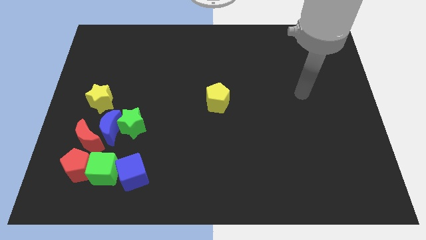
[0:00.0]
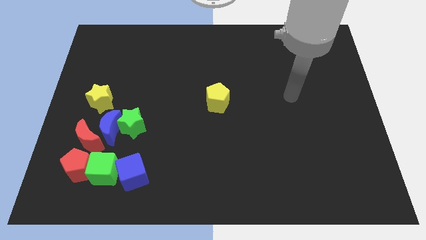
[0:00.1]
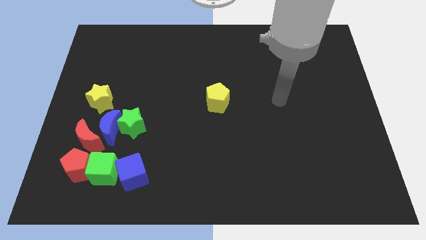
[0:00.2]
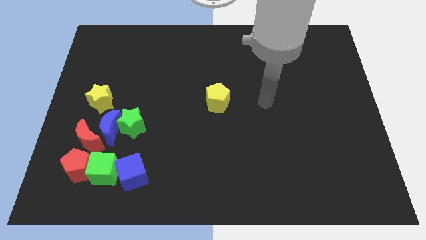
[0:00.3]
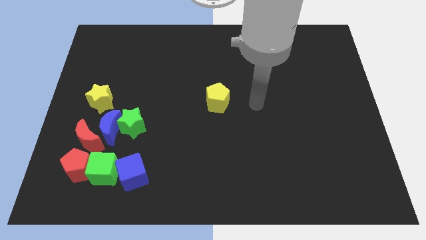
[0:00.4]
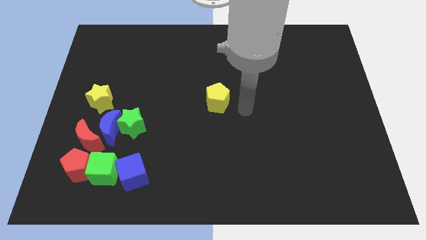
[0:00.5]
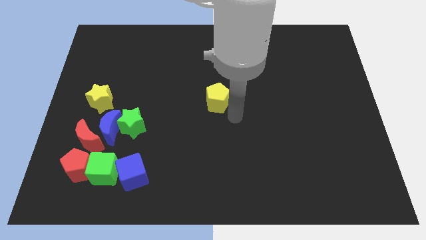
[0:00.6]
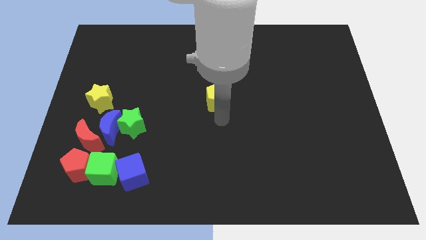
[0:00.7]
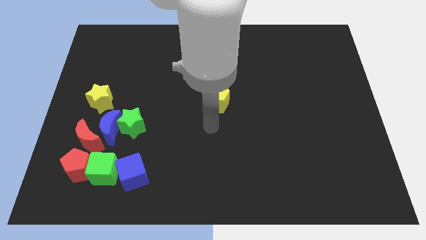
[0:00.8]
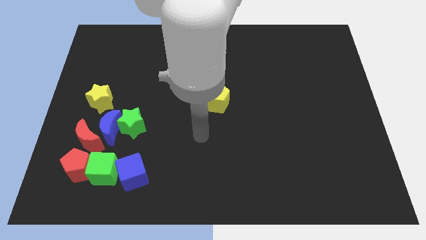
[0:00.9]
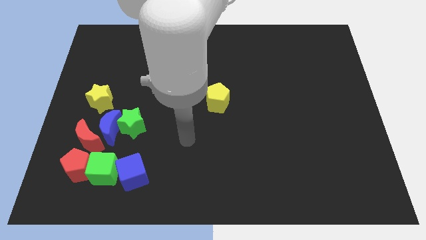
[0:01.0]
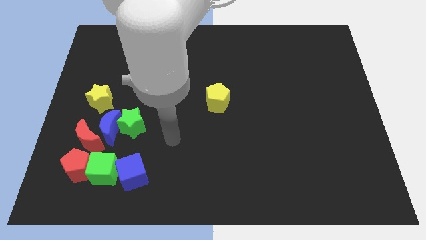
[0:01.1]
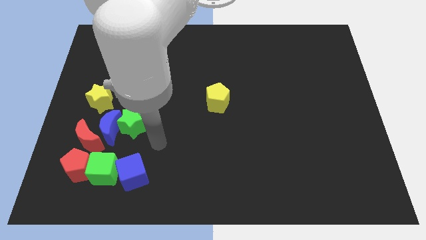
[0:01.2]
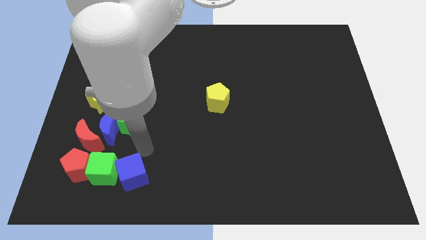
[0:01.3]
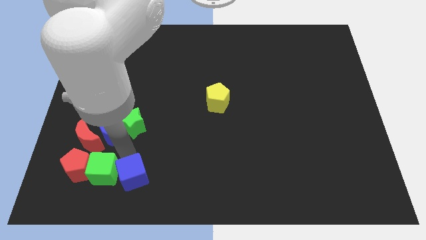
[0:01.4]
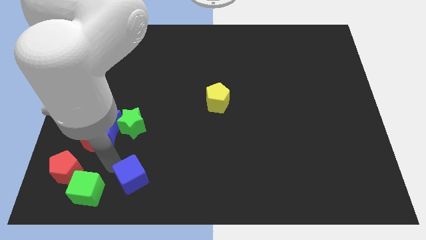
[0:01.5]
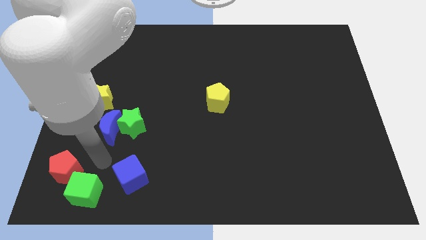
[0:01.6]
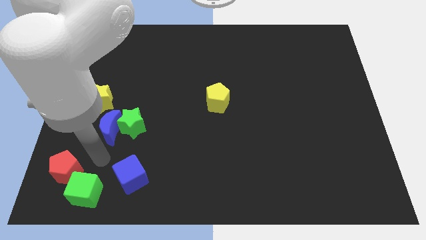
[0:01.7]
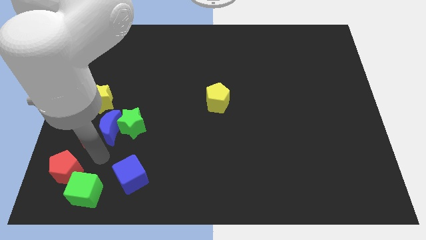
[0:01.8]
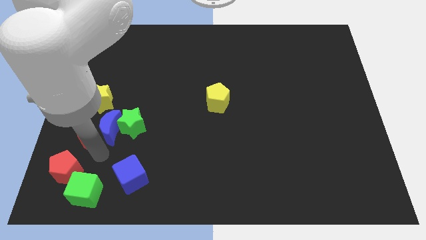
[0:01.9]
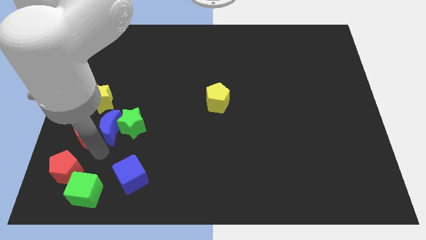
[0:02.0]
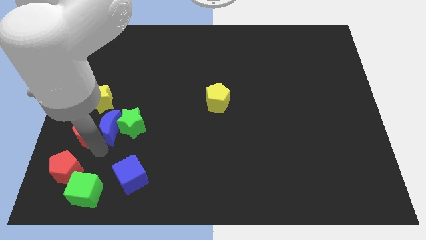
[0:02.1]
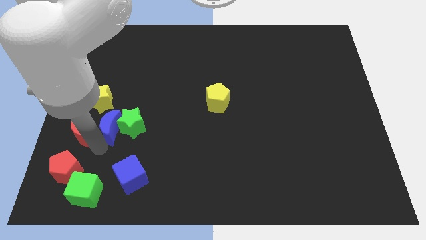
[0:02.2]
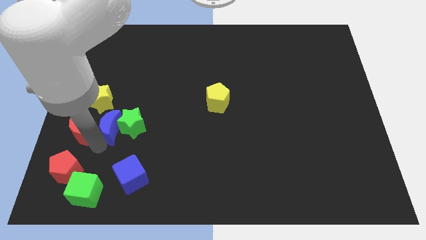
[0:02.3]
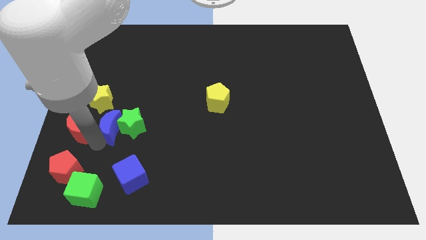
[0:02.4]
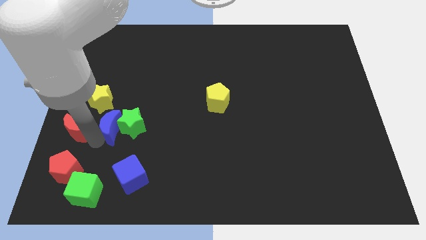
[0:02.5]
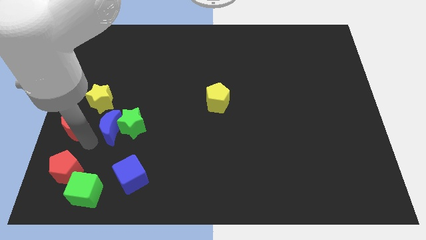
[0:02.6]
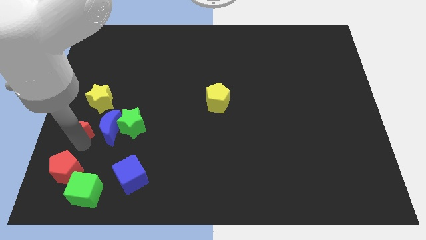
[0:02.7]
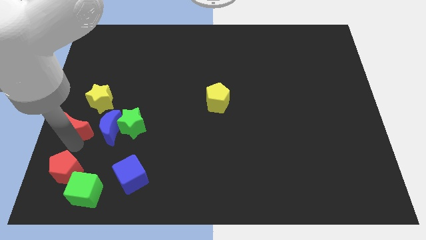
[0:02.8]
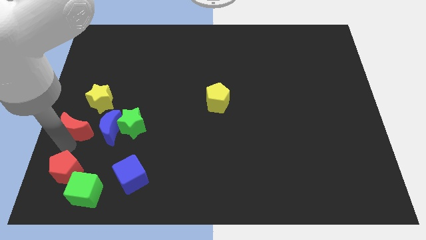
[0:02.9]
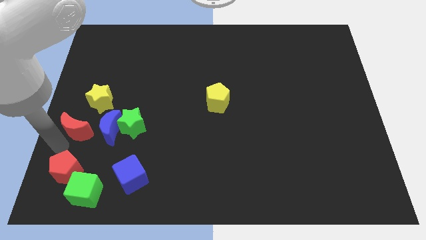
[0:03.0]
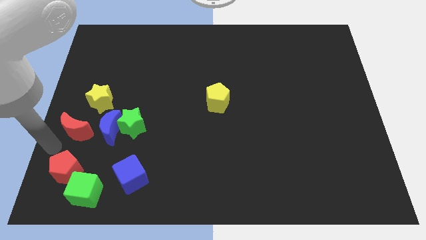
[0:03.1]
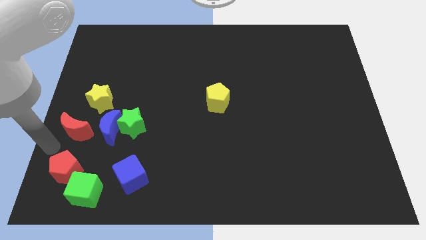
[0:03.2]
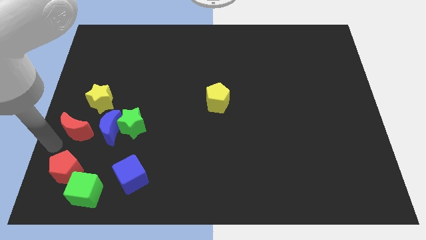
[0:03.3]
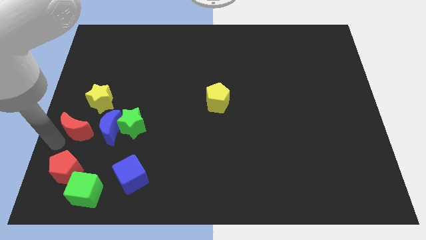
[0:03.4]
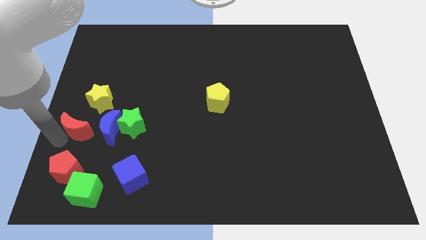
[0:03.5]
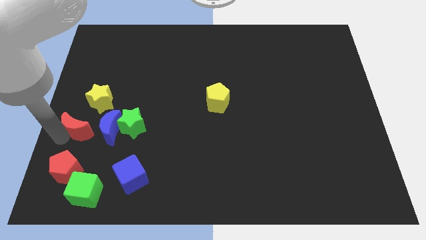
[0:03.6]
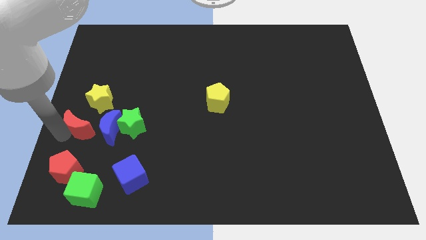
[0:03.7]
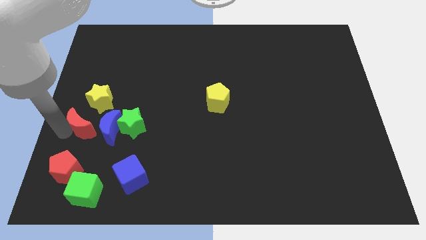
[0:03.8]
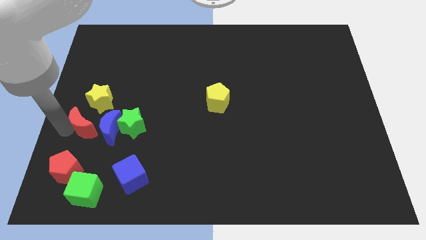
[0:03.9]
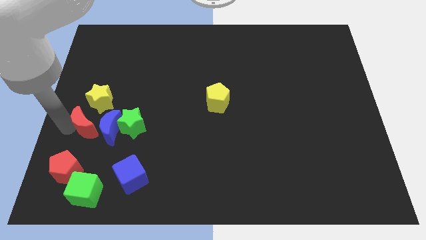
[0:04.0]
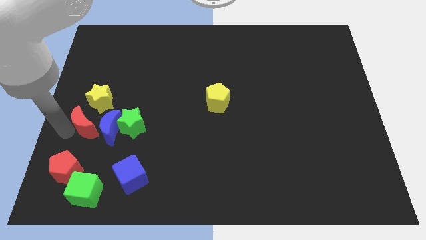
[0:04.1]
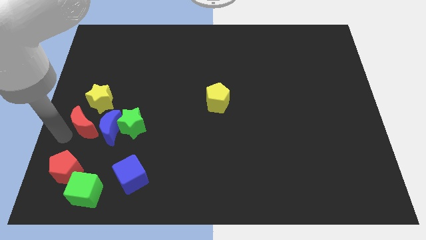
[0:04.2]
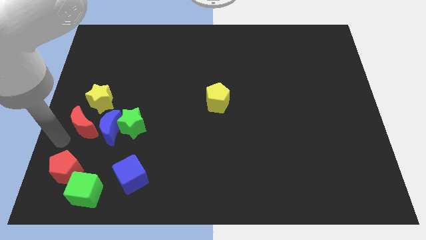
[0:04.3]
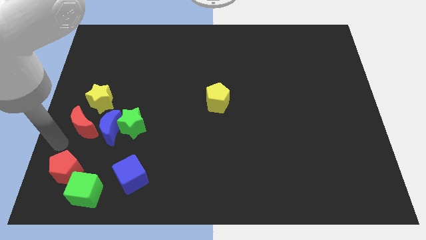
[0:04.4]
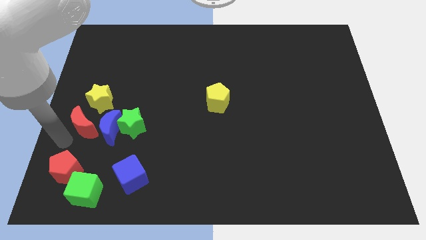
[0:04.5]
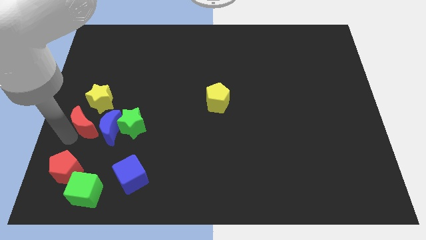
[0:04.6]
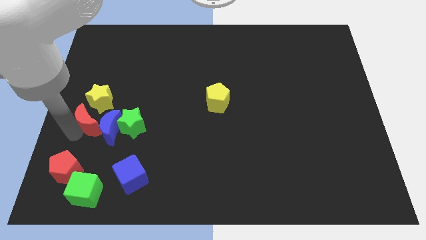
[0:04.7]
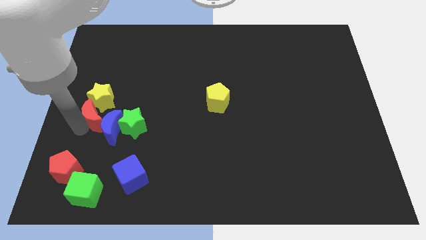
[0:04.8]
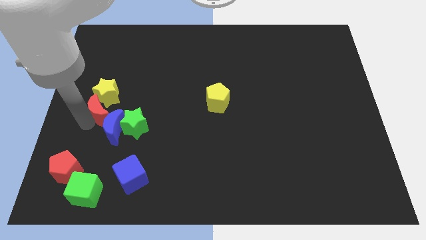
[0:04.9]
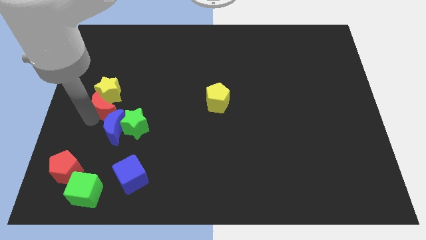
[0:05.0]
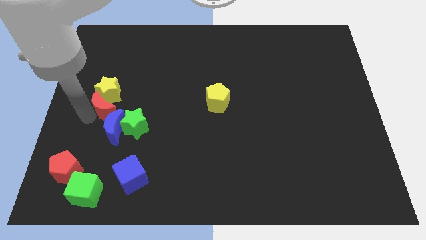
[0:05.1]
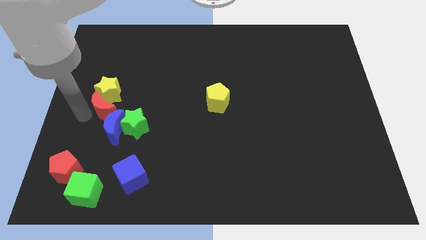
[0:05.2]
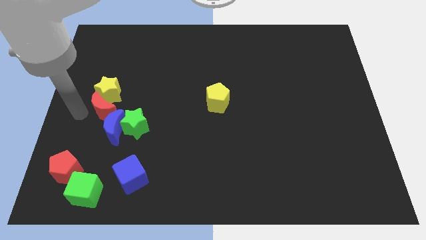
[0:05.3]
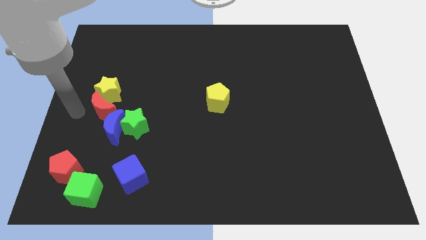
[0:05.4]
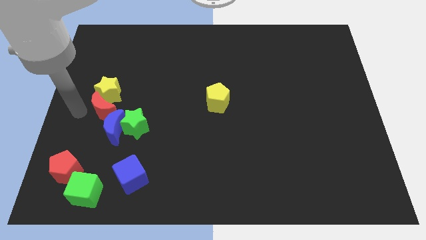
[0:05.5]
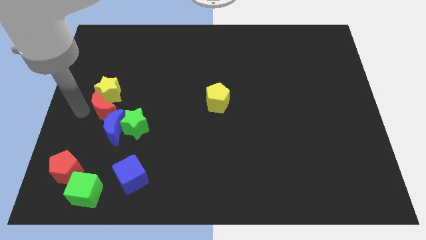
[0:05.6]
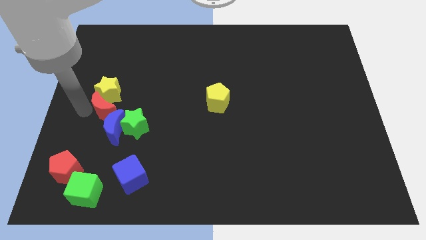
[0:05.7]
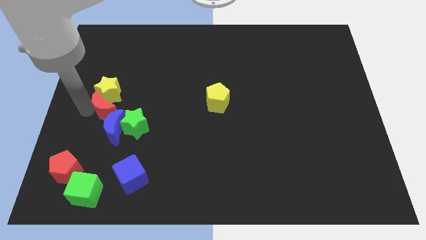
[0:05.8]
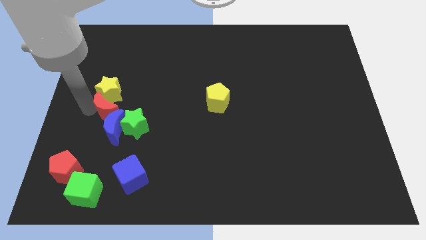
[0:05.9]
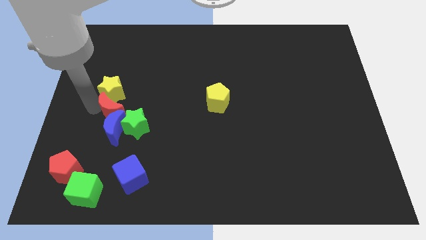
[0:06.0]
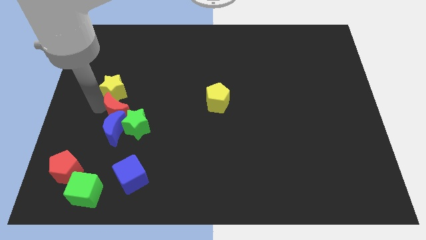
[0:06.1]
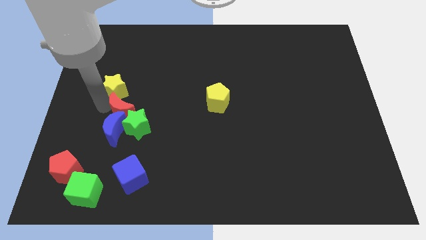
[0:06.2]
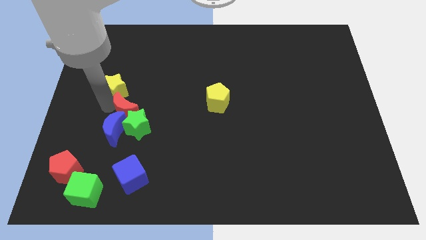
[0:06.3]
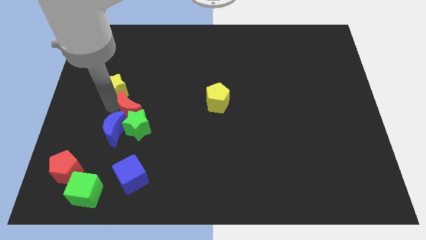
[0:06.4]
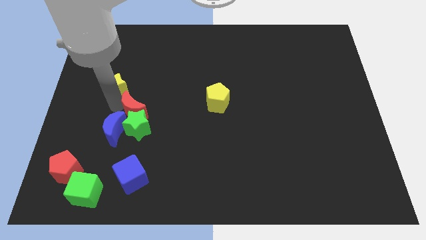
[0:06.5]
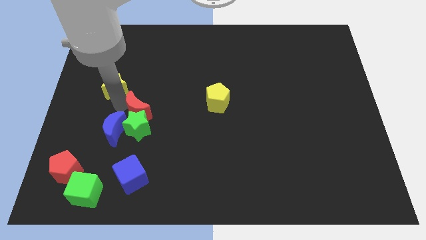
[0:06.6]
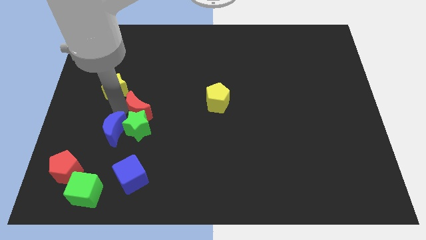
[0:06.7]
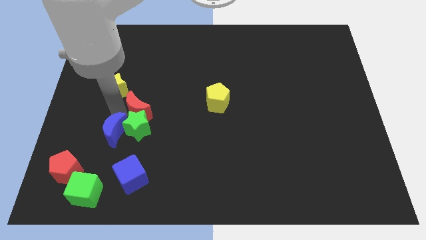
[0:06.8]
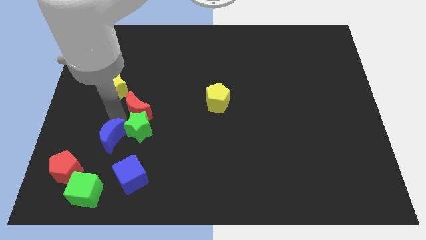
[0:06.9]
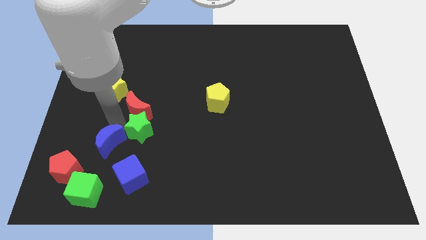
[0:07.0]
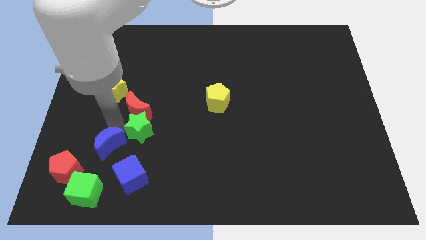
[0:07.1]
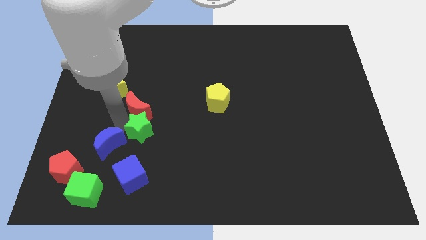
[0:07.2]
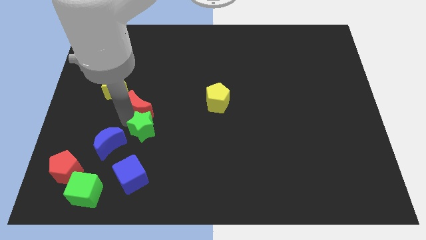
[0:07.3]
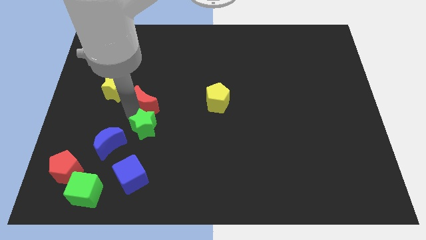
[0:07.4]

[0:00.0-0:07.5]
slide the red moon to the right side of the yellow star
